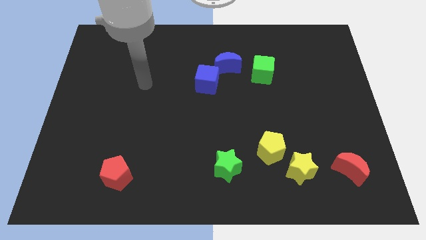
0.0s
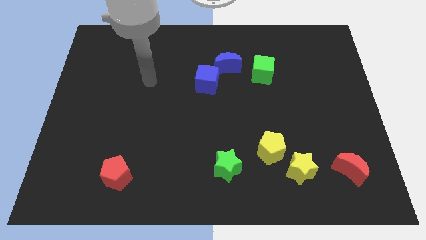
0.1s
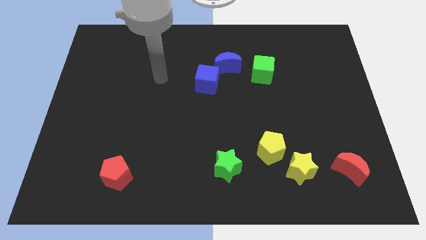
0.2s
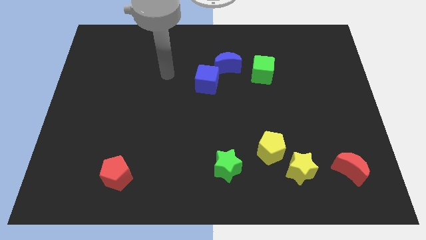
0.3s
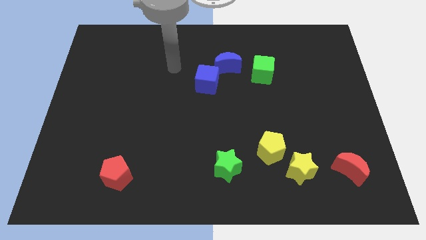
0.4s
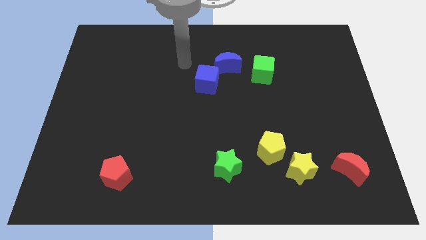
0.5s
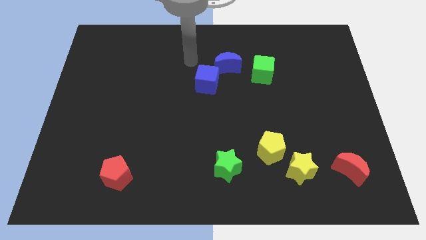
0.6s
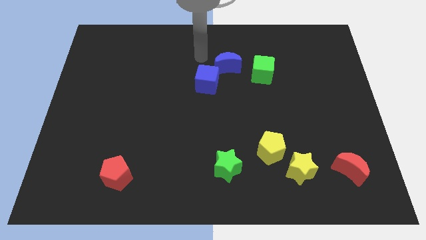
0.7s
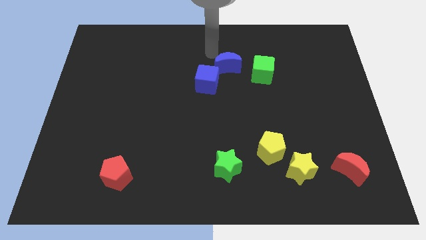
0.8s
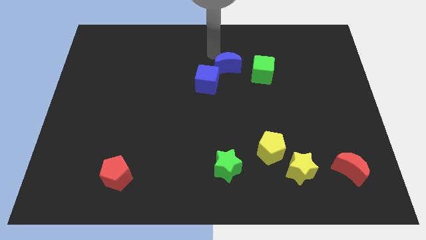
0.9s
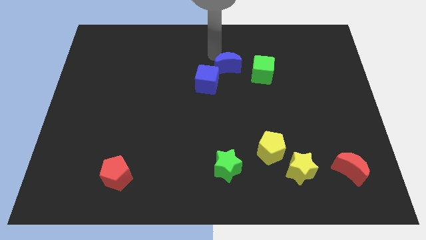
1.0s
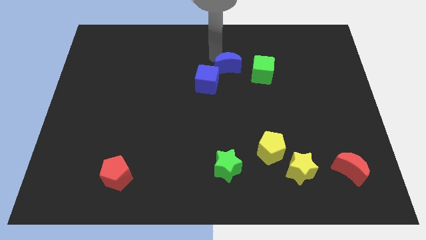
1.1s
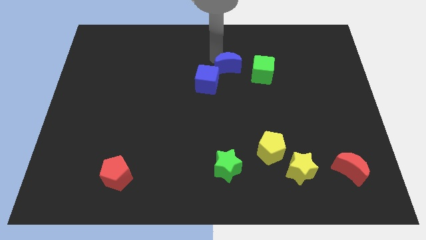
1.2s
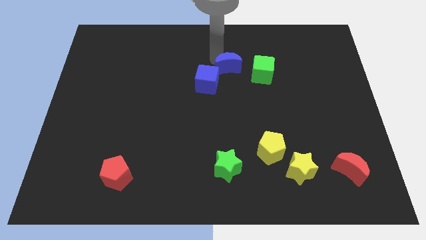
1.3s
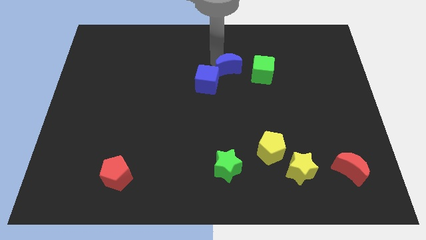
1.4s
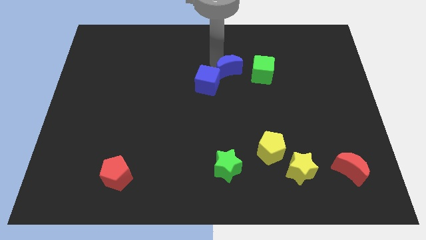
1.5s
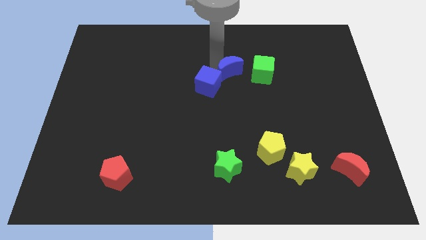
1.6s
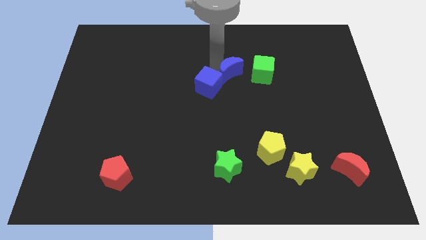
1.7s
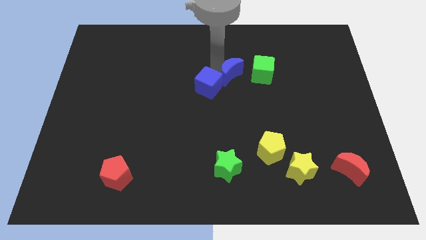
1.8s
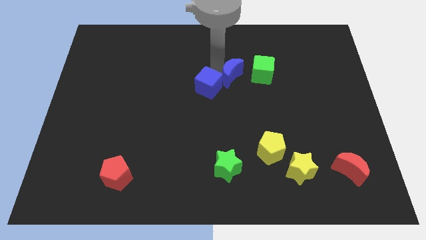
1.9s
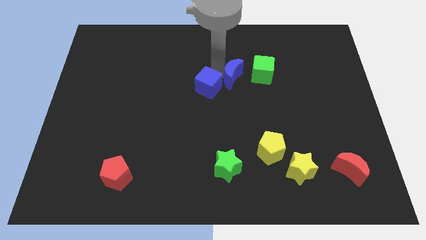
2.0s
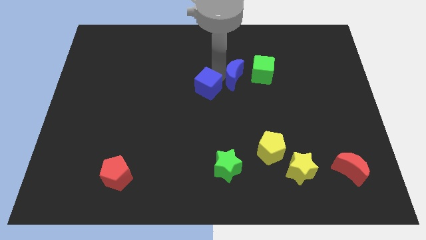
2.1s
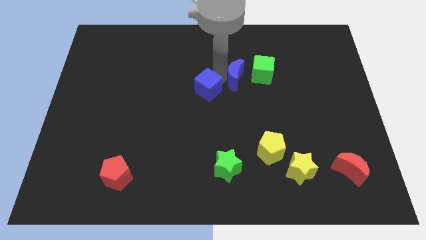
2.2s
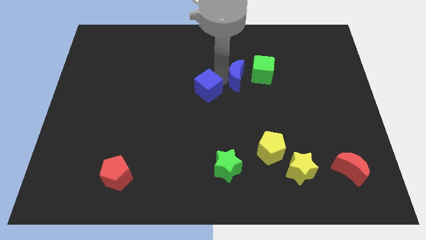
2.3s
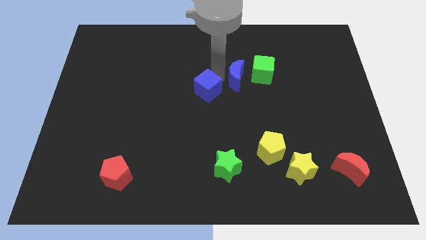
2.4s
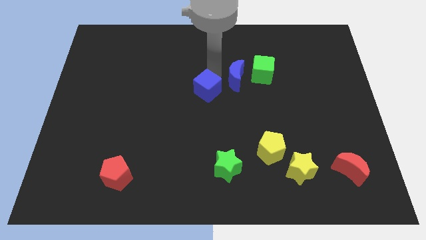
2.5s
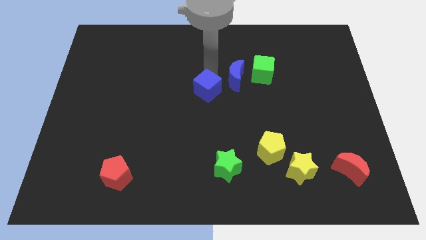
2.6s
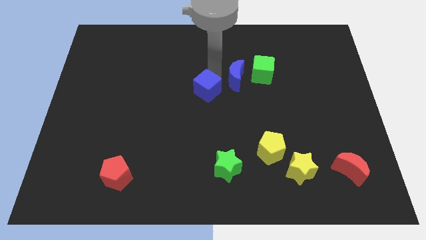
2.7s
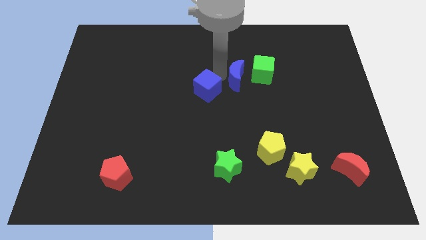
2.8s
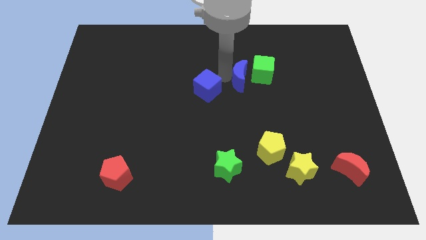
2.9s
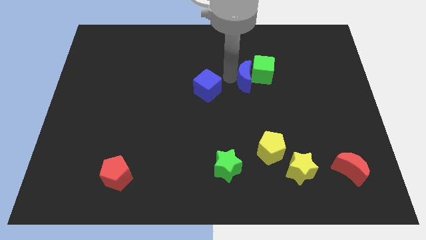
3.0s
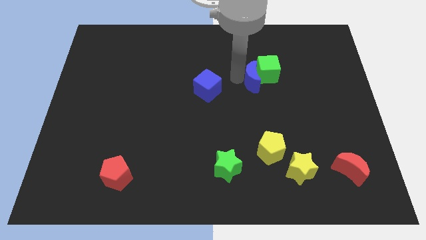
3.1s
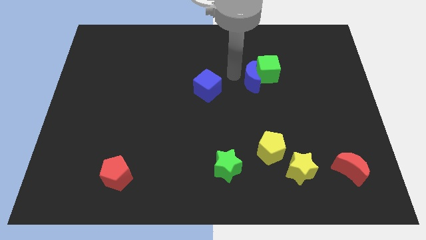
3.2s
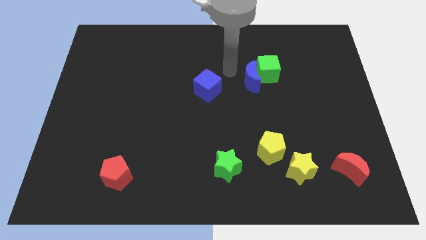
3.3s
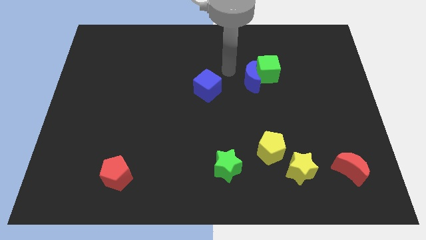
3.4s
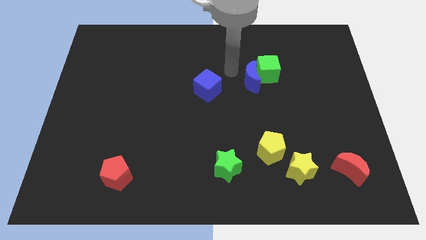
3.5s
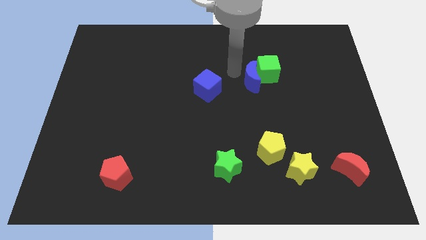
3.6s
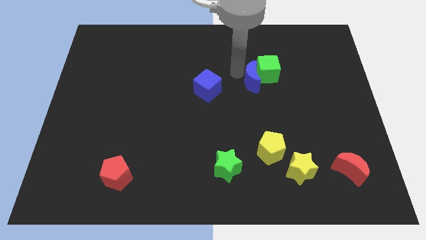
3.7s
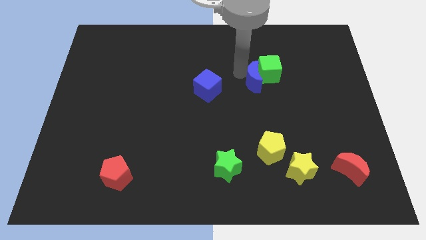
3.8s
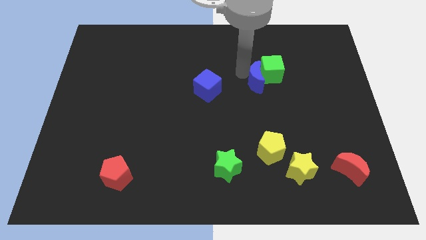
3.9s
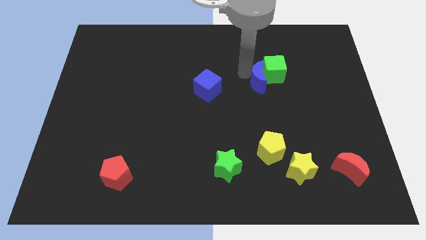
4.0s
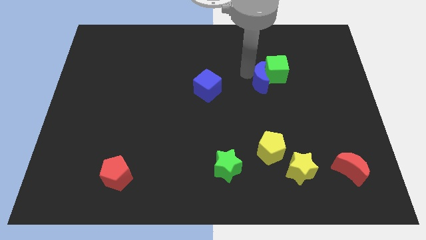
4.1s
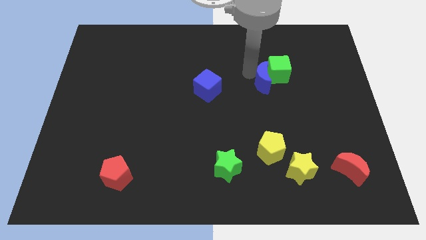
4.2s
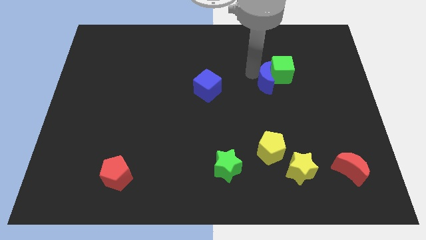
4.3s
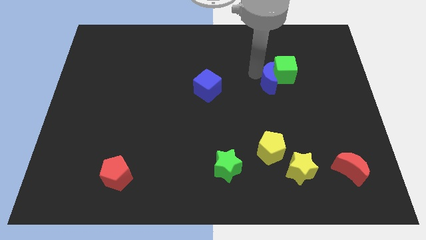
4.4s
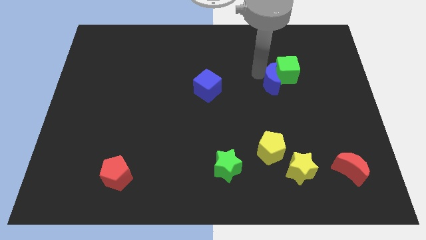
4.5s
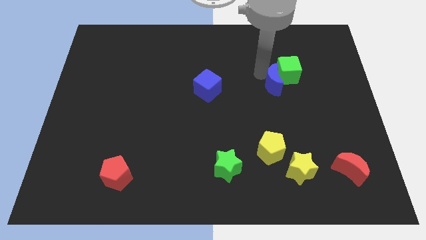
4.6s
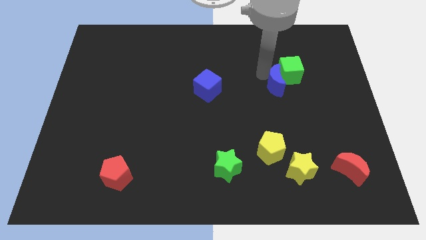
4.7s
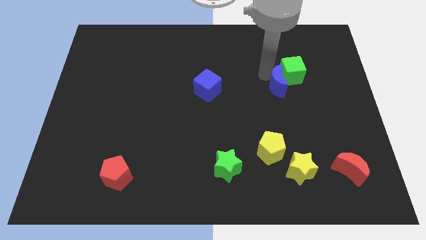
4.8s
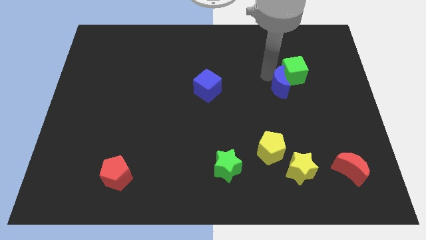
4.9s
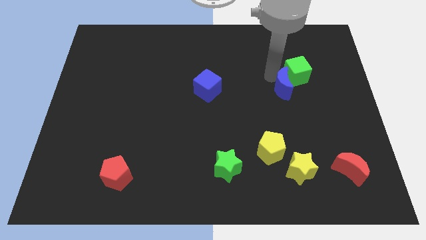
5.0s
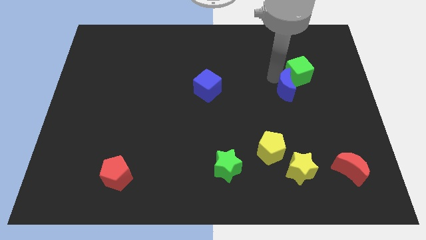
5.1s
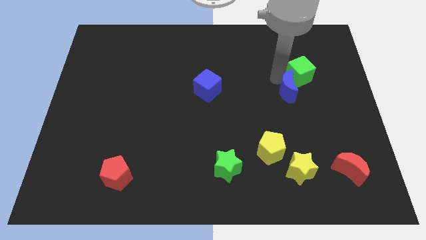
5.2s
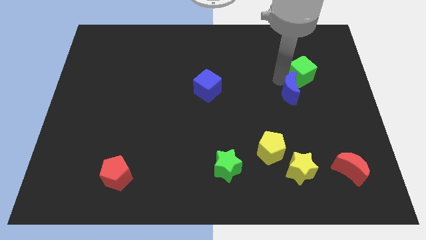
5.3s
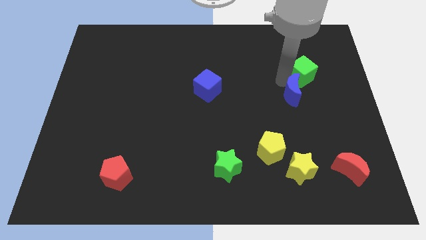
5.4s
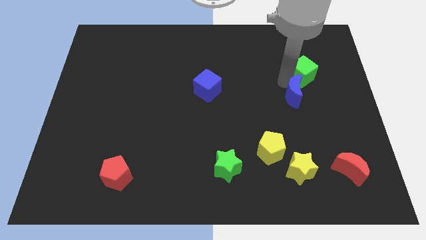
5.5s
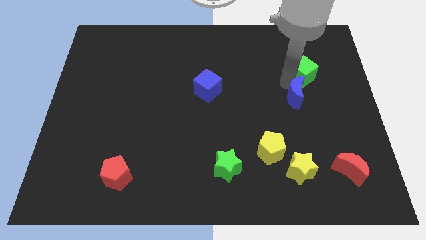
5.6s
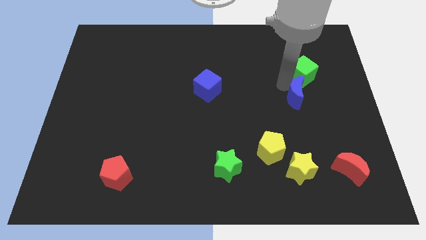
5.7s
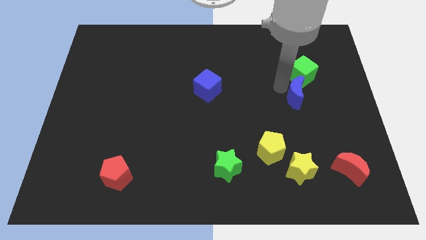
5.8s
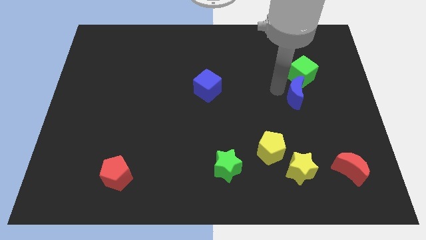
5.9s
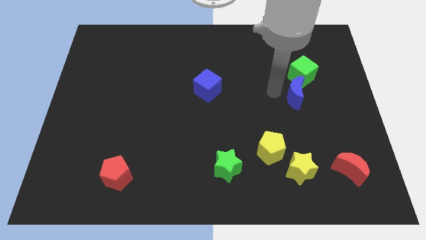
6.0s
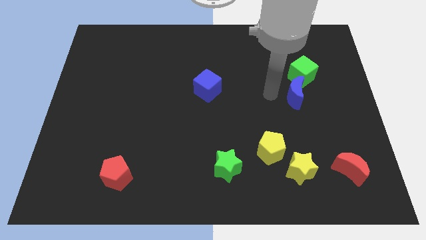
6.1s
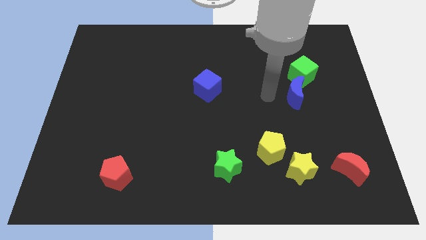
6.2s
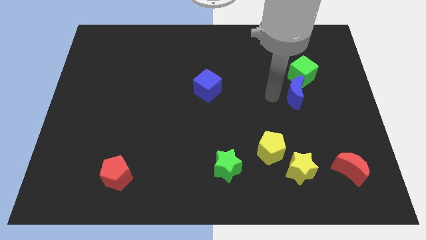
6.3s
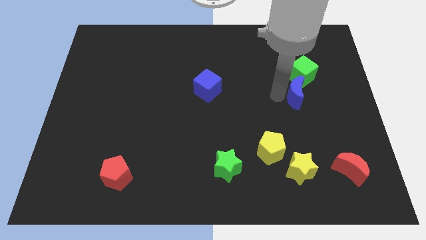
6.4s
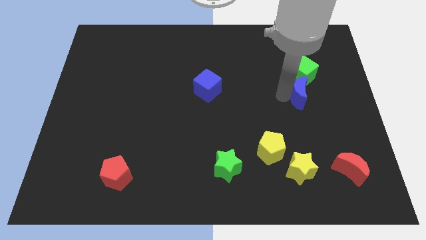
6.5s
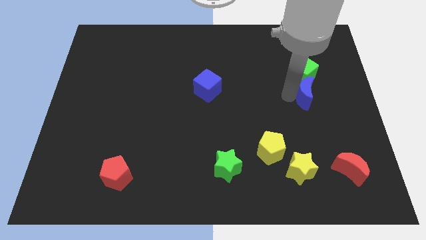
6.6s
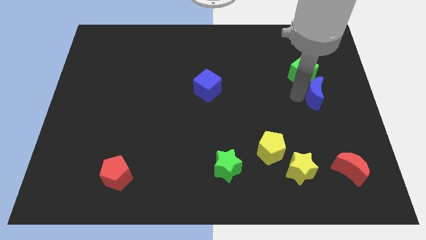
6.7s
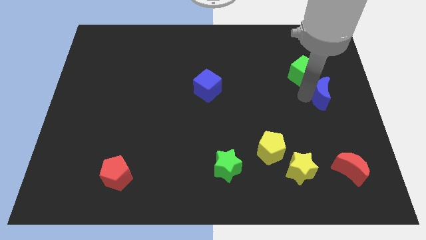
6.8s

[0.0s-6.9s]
slide the blue moon to the right side
